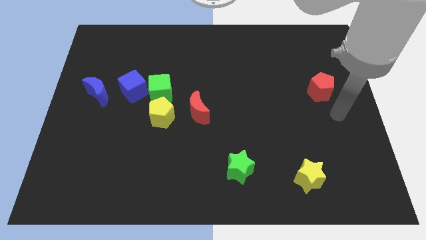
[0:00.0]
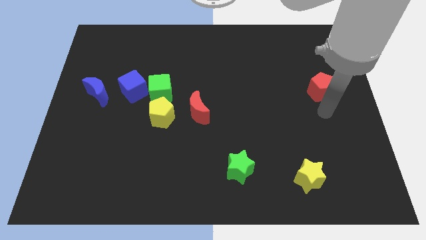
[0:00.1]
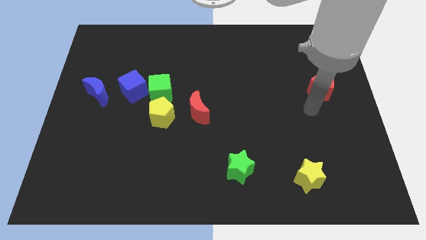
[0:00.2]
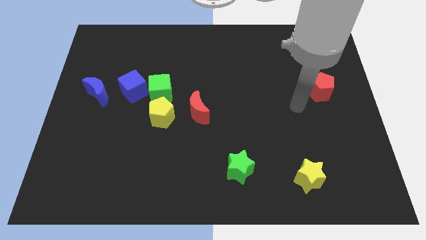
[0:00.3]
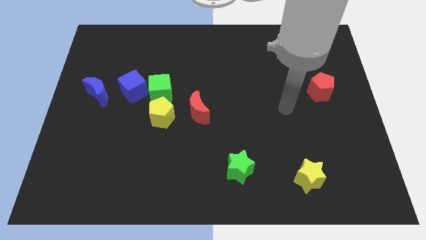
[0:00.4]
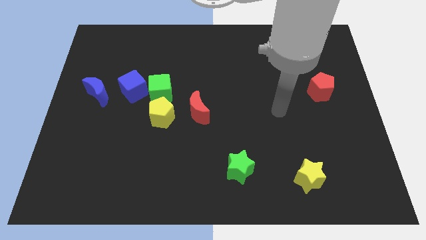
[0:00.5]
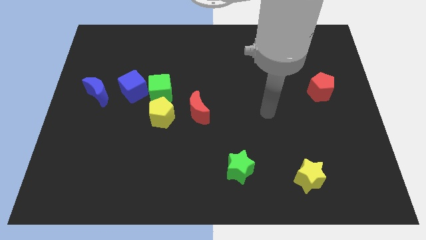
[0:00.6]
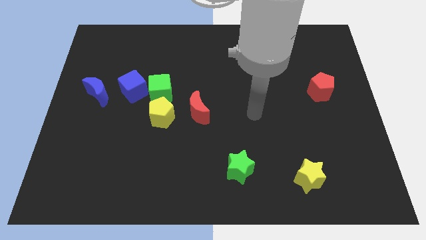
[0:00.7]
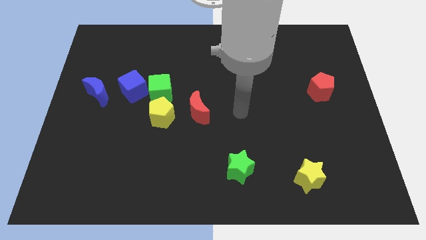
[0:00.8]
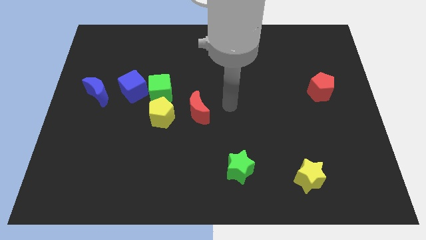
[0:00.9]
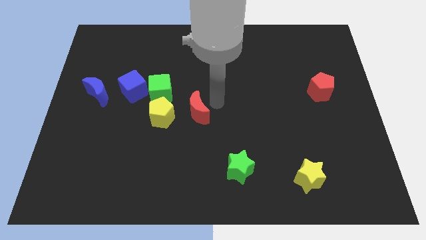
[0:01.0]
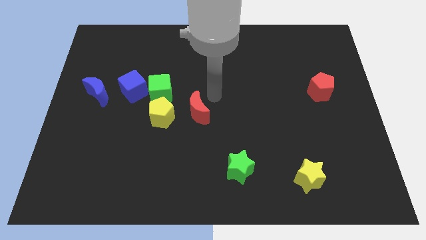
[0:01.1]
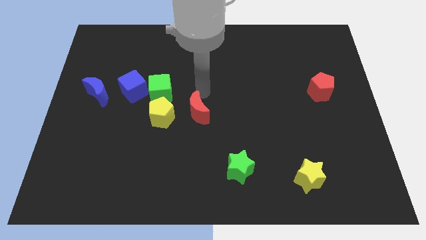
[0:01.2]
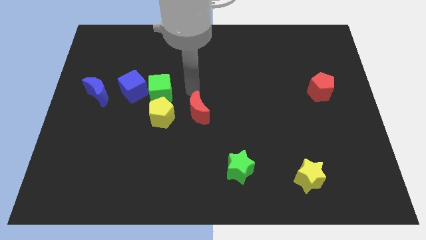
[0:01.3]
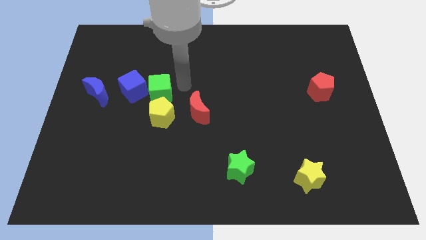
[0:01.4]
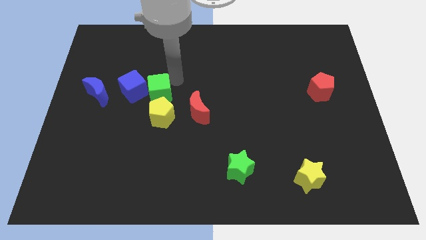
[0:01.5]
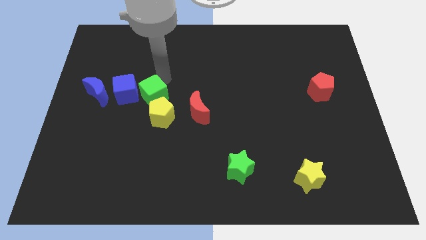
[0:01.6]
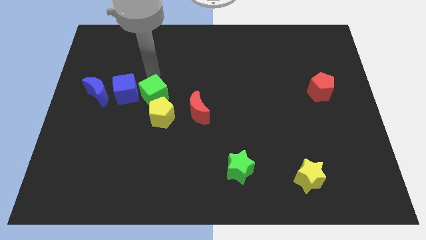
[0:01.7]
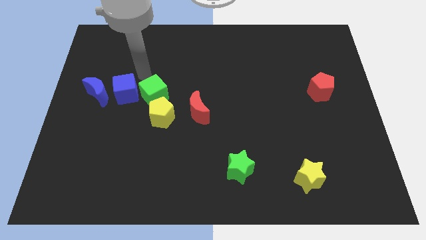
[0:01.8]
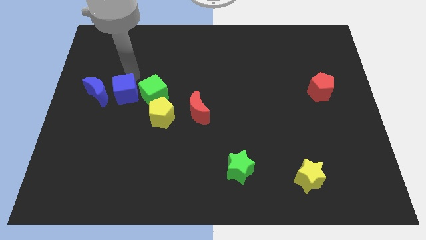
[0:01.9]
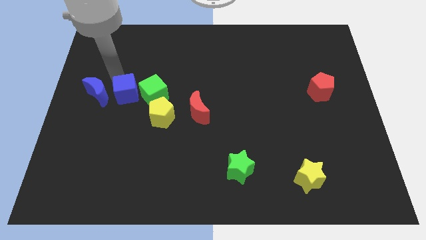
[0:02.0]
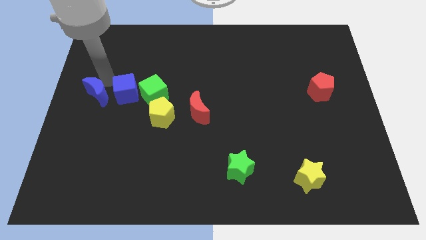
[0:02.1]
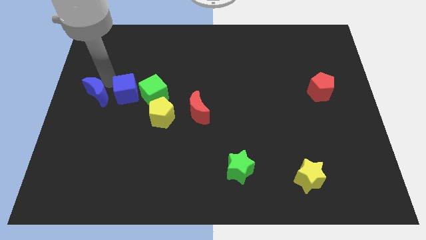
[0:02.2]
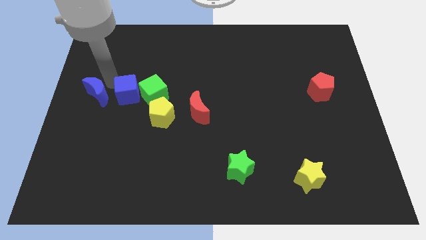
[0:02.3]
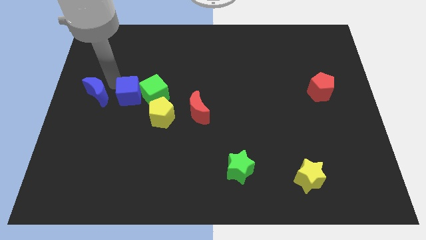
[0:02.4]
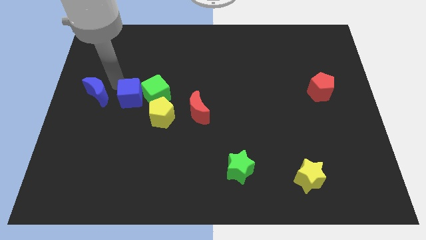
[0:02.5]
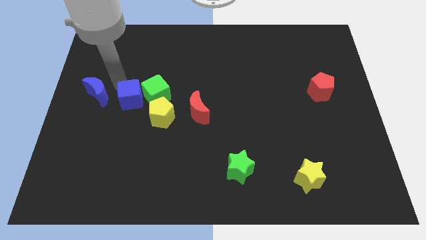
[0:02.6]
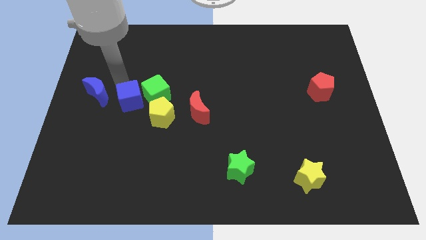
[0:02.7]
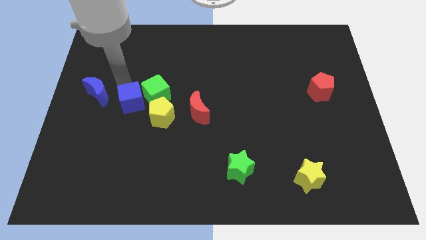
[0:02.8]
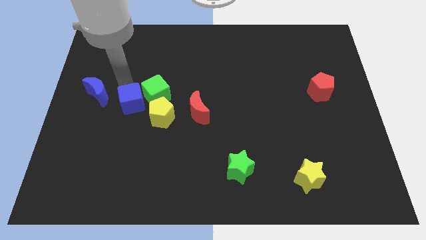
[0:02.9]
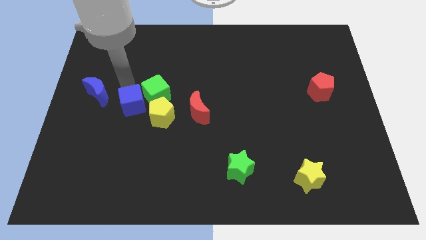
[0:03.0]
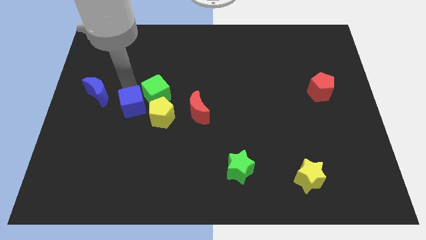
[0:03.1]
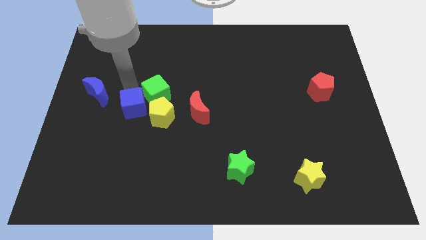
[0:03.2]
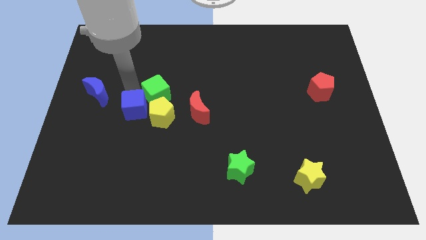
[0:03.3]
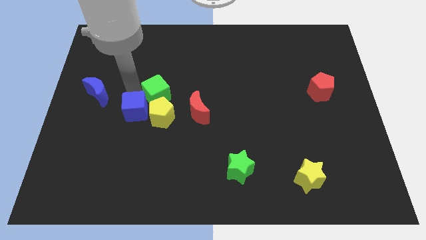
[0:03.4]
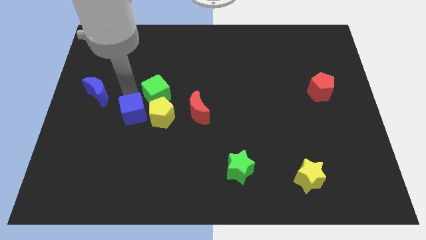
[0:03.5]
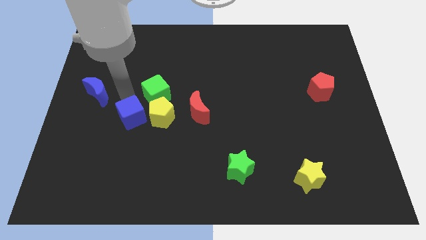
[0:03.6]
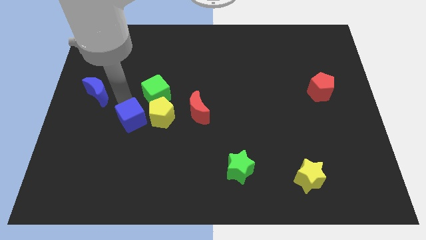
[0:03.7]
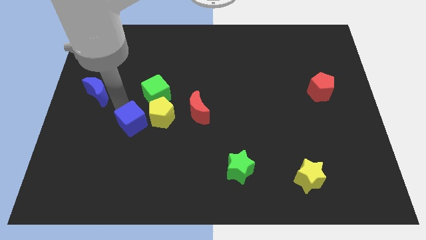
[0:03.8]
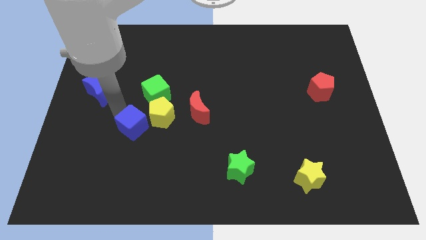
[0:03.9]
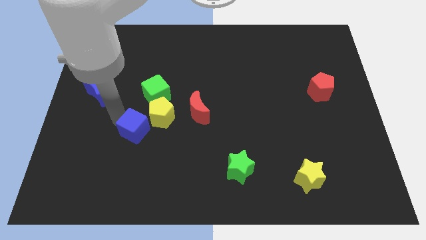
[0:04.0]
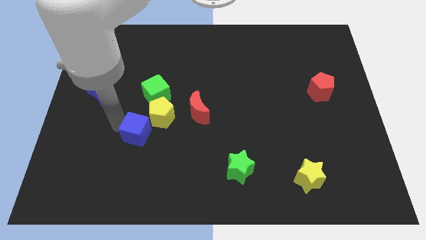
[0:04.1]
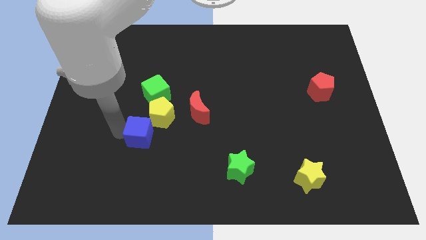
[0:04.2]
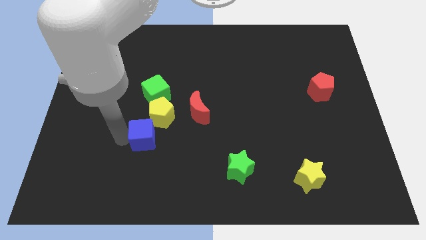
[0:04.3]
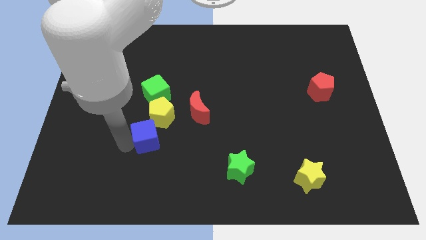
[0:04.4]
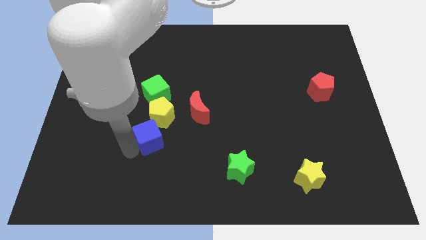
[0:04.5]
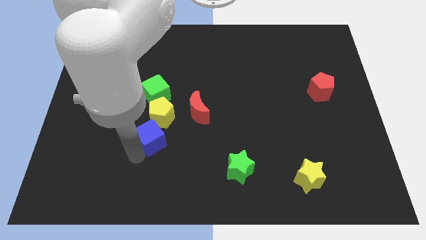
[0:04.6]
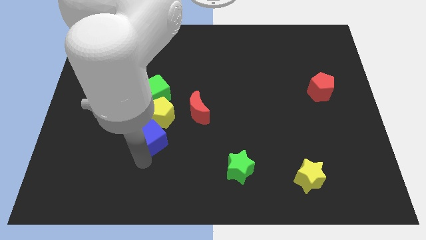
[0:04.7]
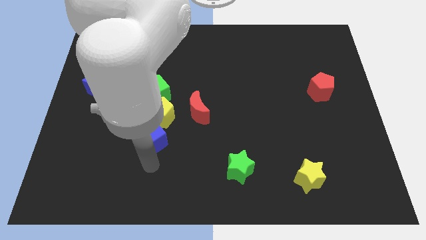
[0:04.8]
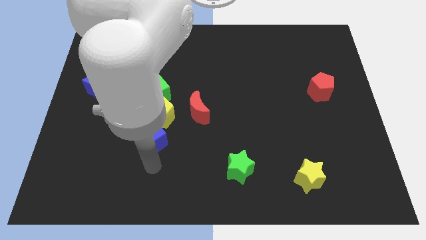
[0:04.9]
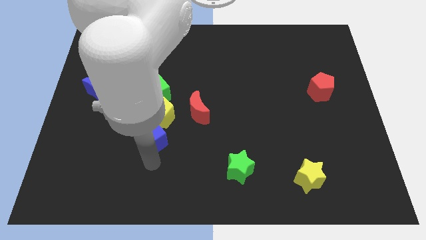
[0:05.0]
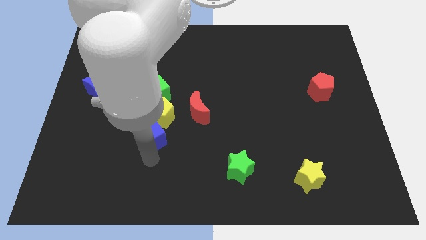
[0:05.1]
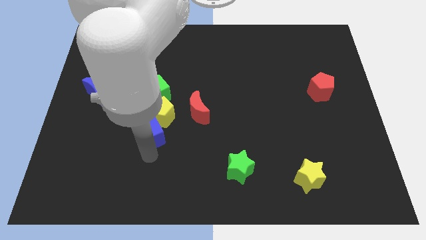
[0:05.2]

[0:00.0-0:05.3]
put the blue cube towards the yellow pentagon

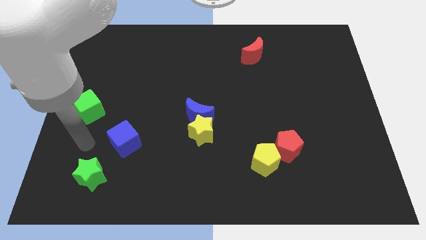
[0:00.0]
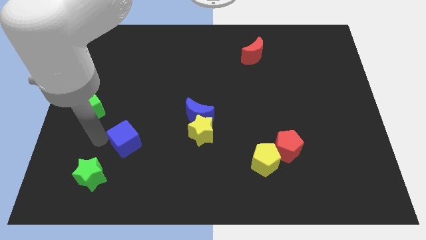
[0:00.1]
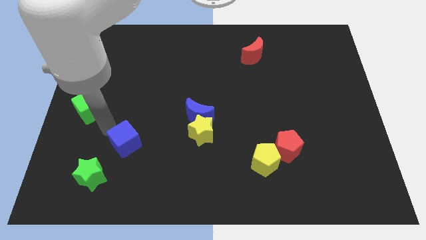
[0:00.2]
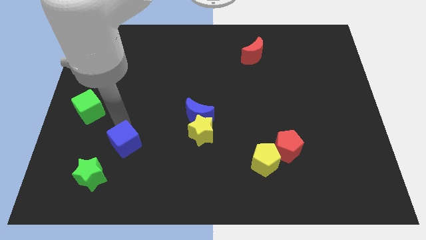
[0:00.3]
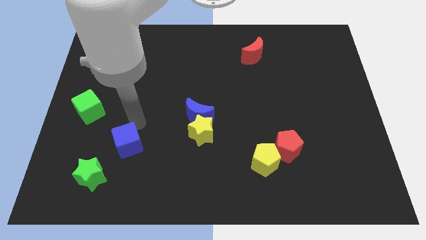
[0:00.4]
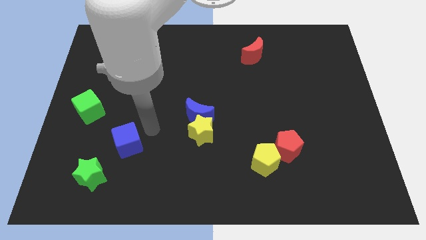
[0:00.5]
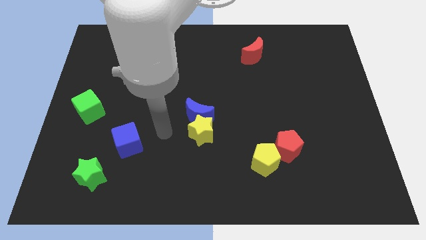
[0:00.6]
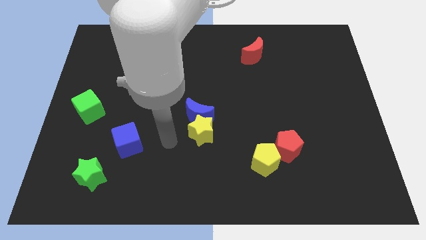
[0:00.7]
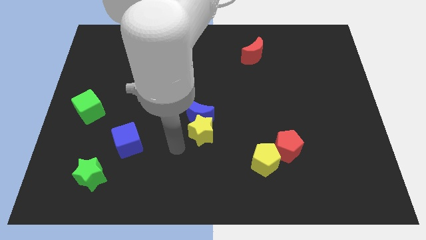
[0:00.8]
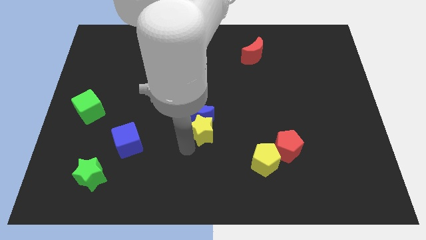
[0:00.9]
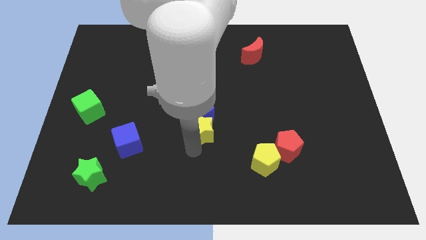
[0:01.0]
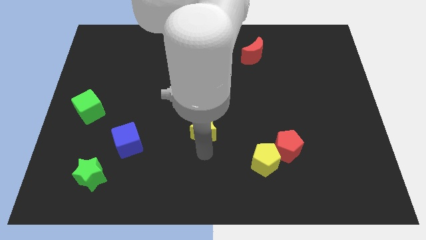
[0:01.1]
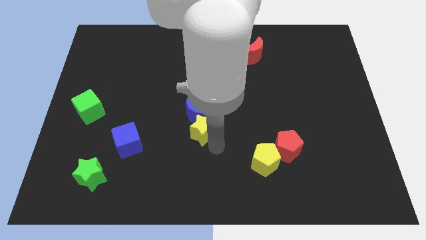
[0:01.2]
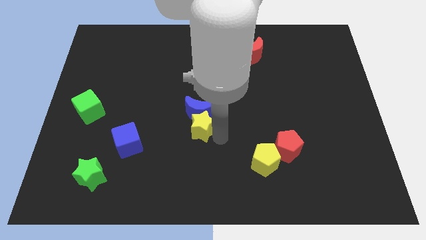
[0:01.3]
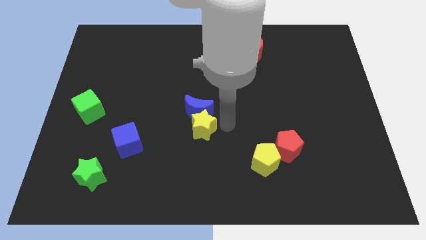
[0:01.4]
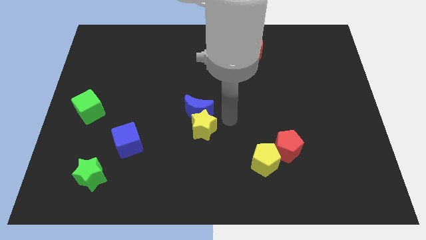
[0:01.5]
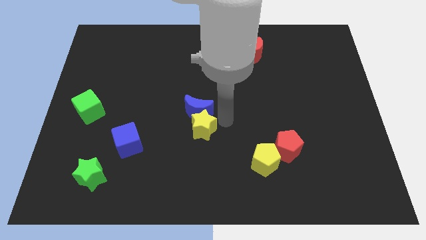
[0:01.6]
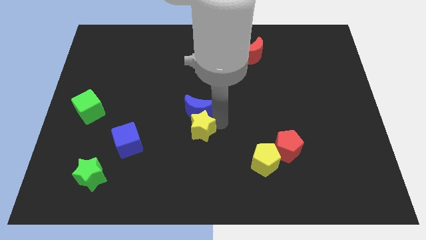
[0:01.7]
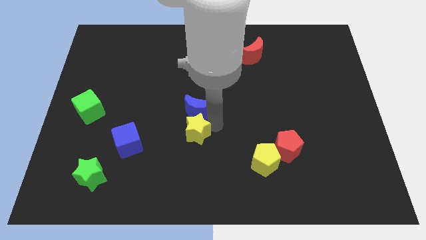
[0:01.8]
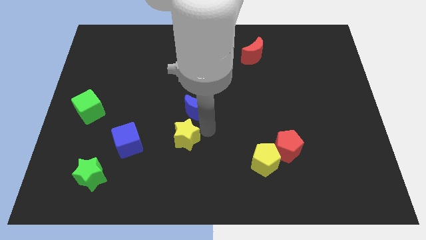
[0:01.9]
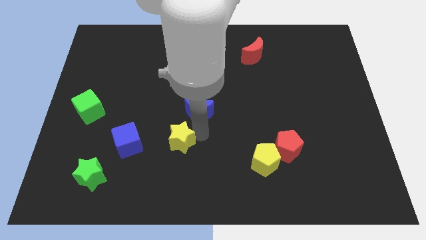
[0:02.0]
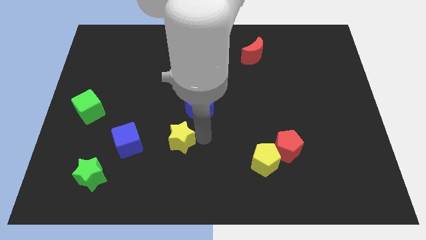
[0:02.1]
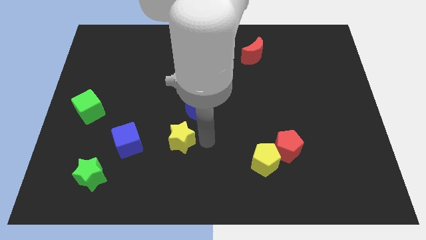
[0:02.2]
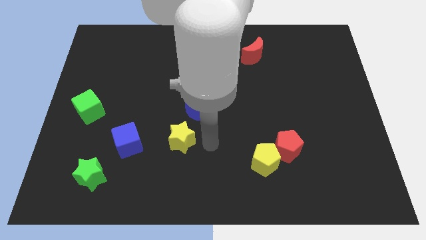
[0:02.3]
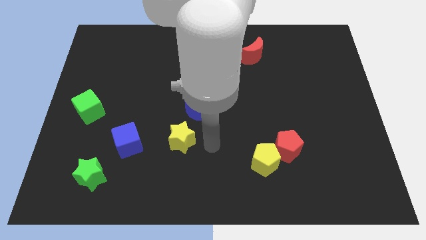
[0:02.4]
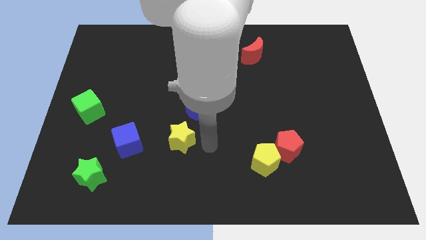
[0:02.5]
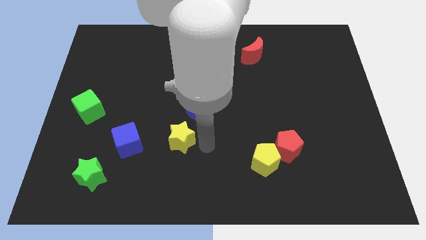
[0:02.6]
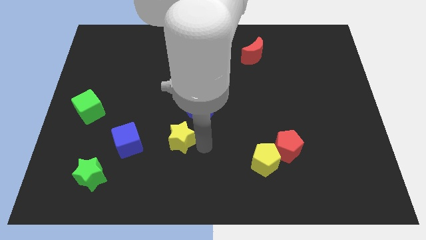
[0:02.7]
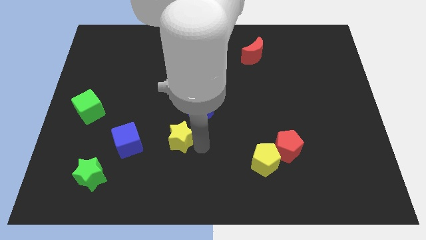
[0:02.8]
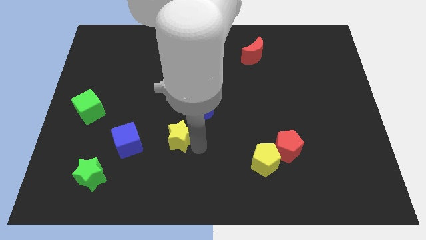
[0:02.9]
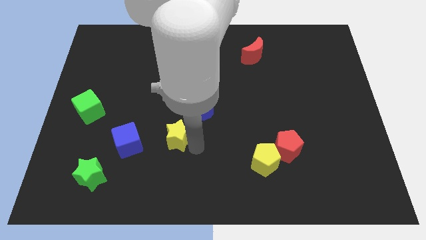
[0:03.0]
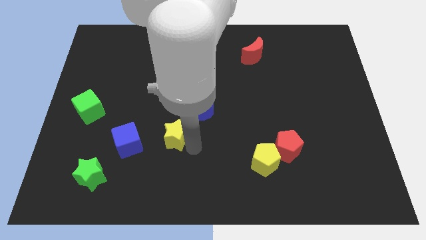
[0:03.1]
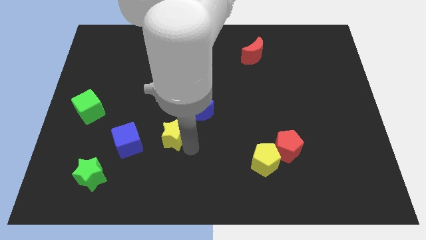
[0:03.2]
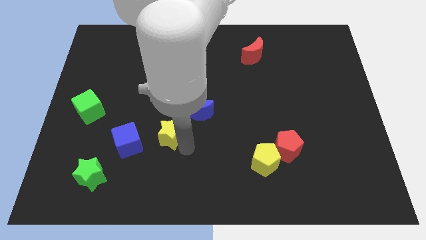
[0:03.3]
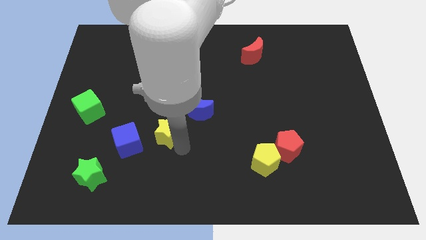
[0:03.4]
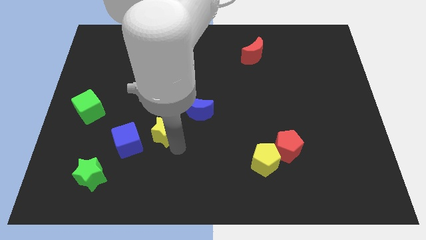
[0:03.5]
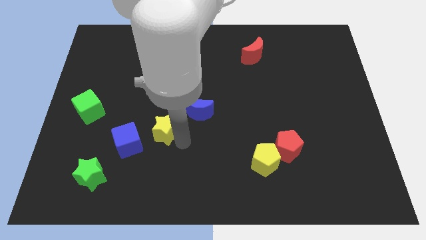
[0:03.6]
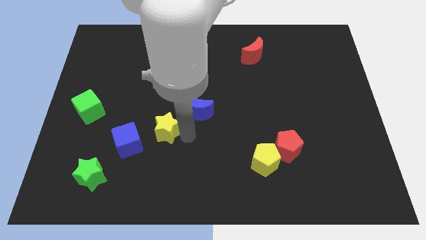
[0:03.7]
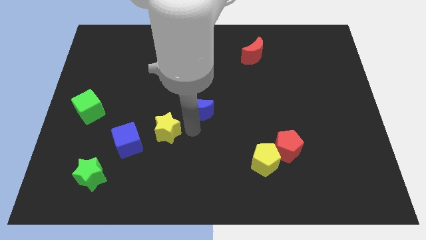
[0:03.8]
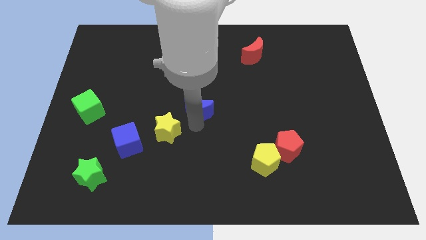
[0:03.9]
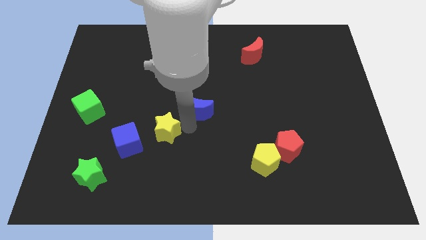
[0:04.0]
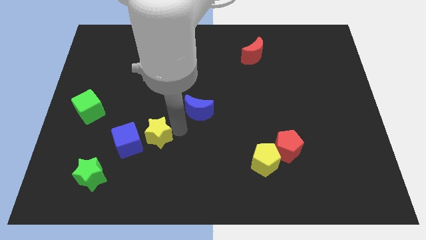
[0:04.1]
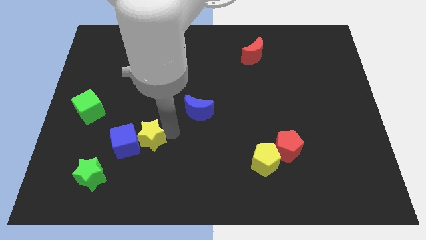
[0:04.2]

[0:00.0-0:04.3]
push the yellow star next to the blue cube
